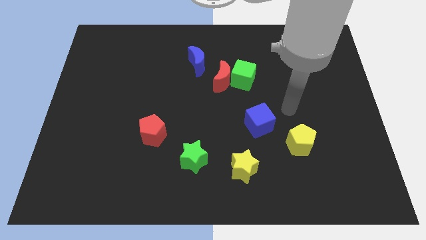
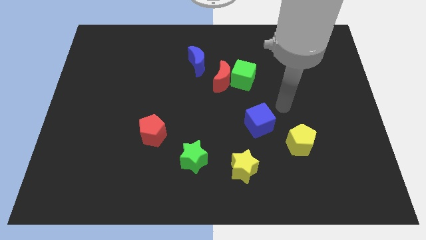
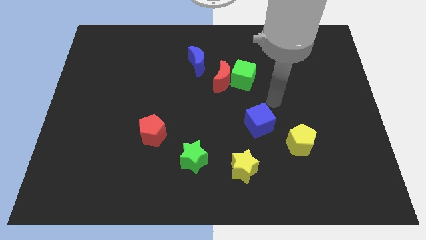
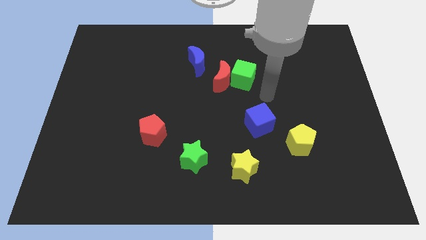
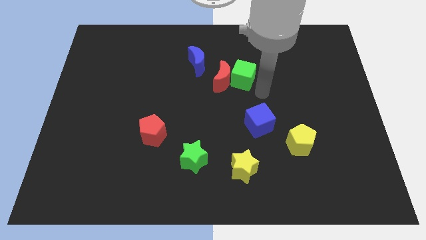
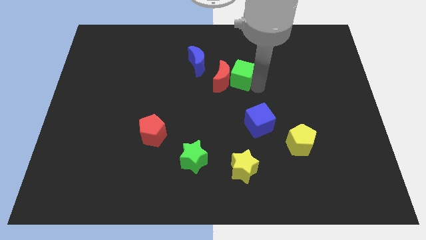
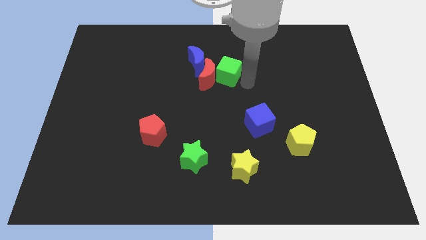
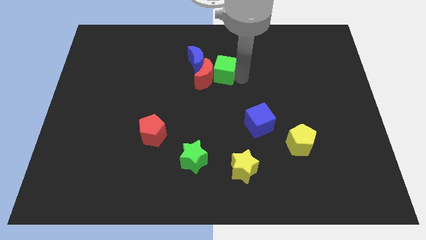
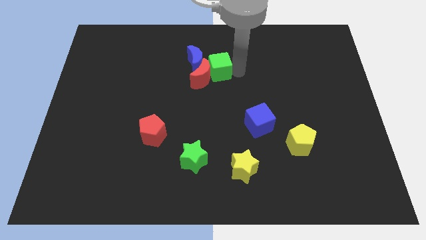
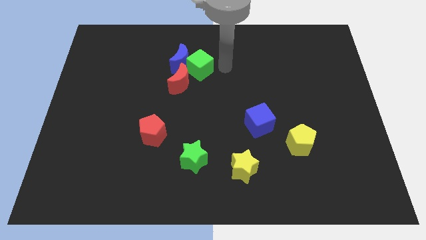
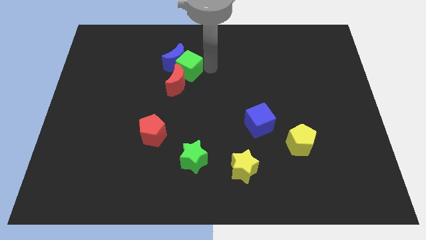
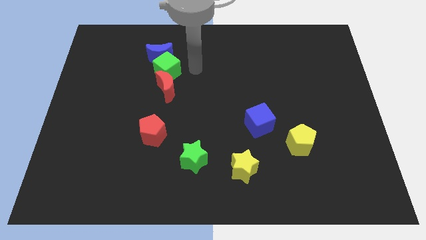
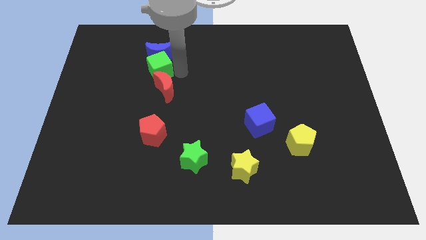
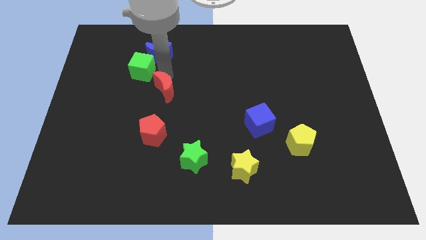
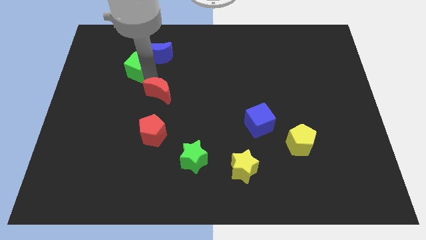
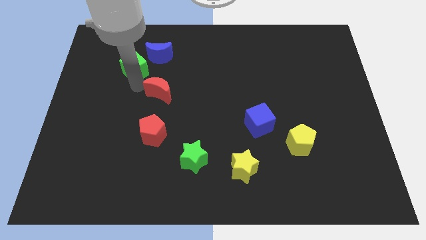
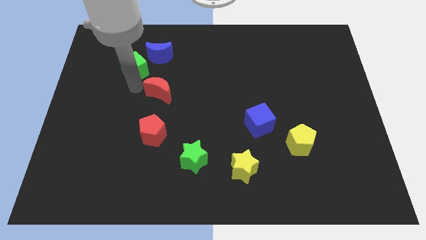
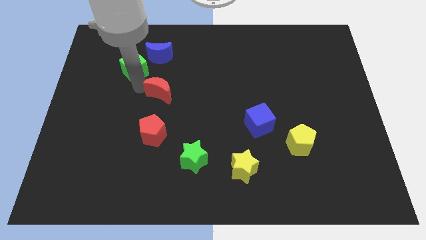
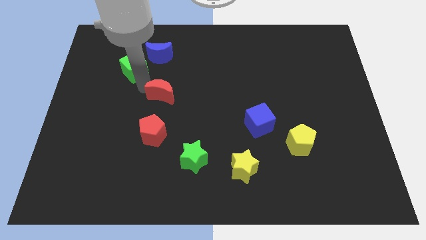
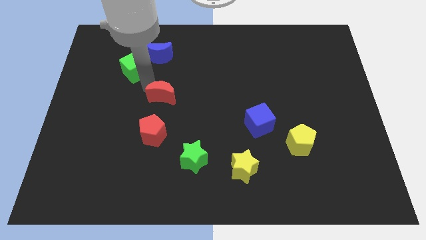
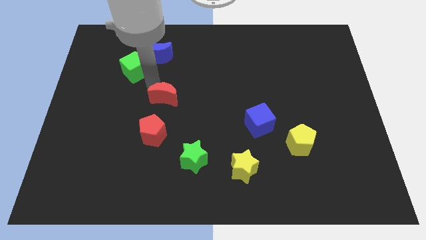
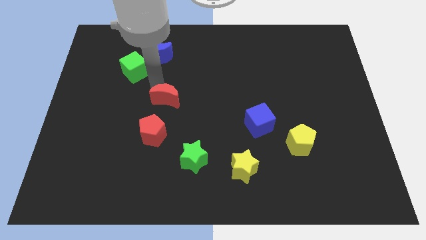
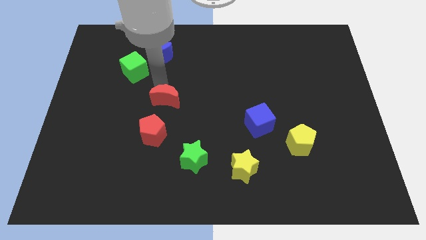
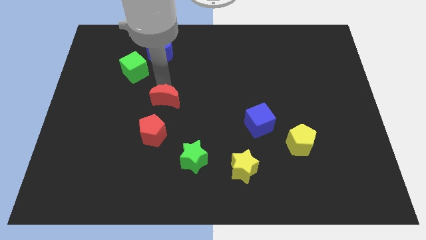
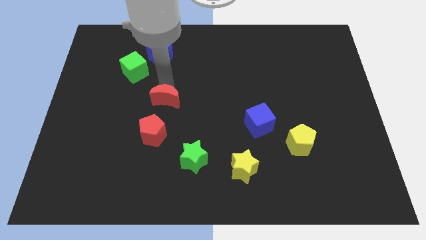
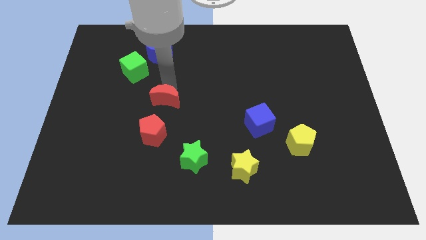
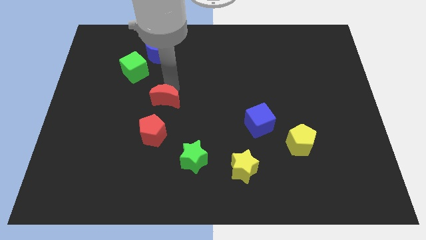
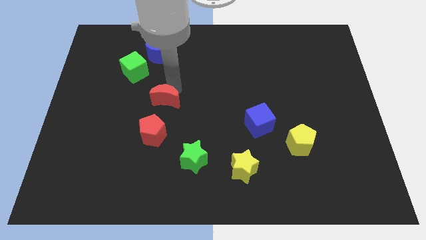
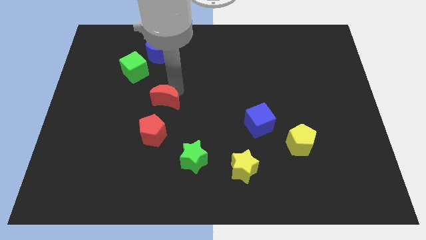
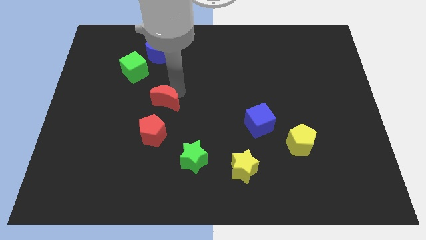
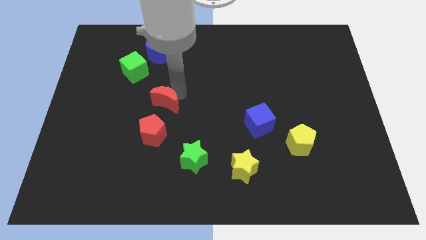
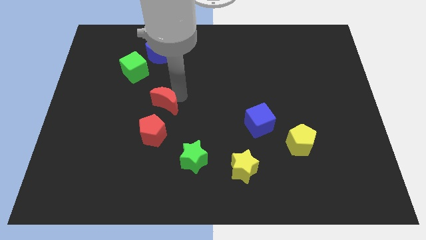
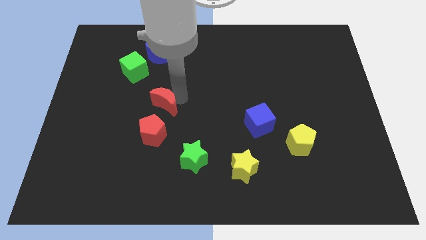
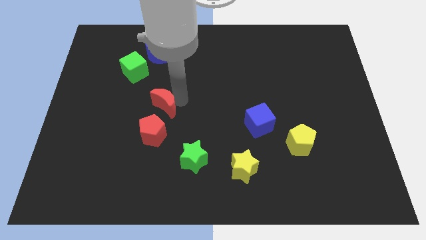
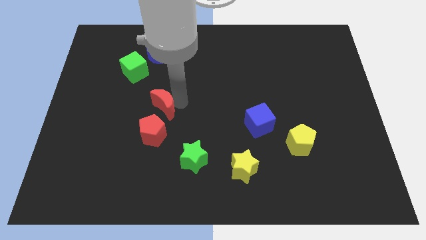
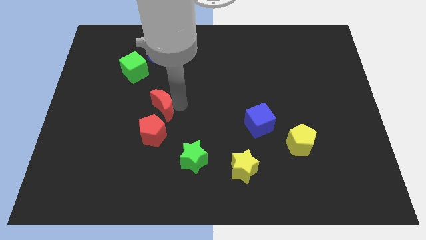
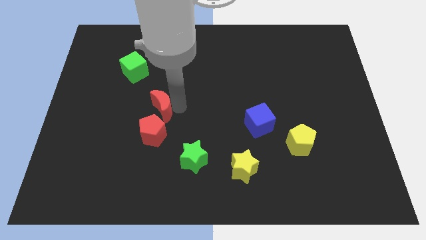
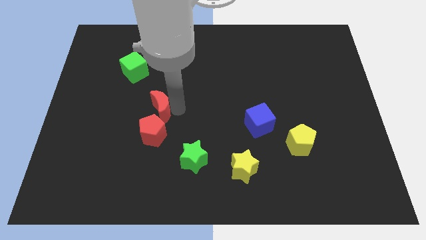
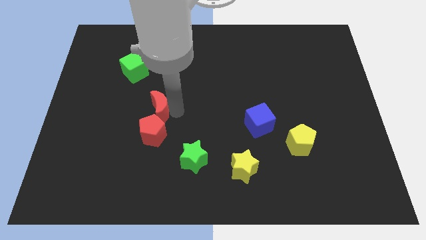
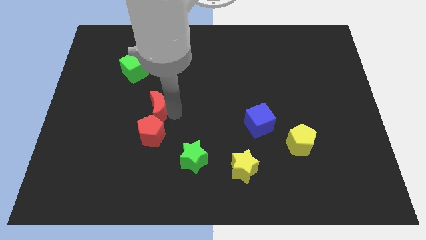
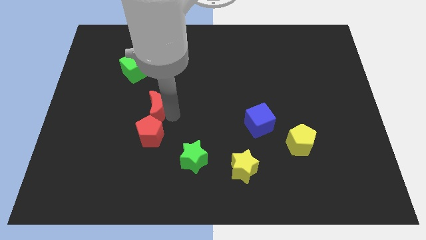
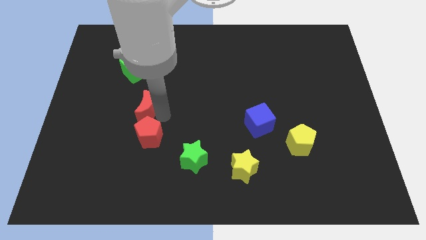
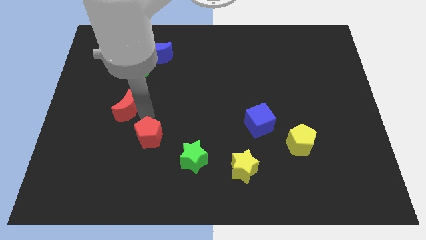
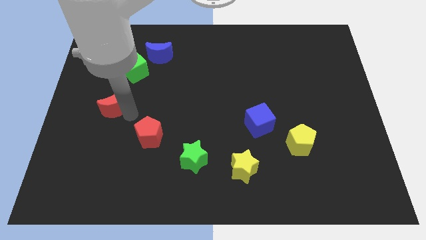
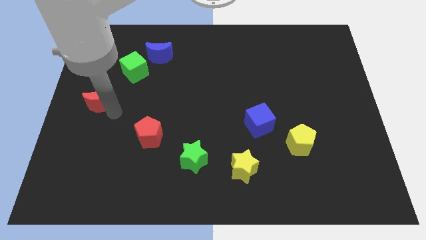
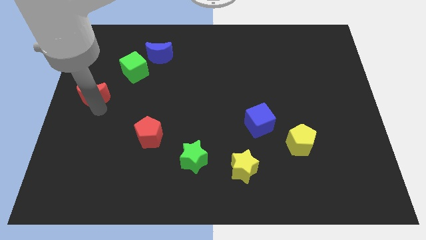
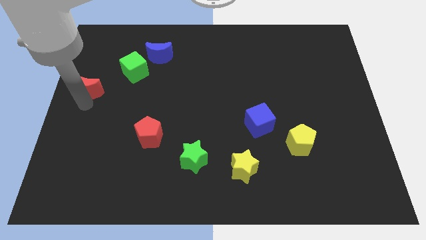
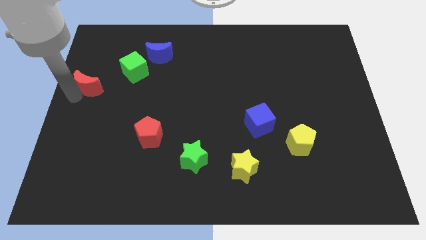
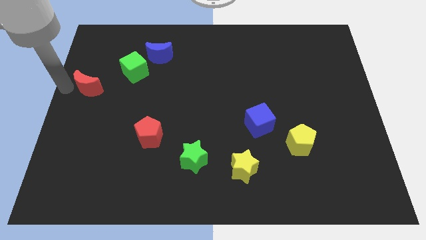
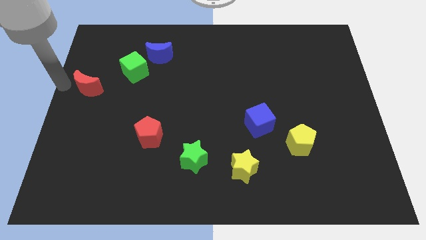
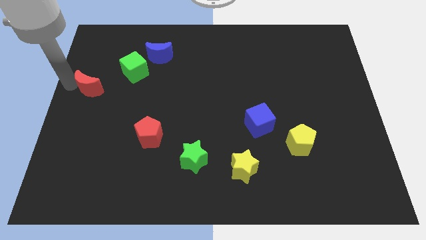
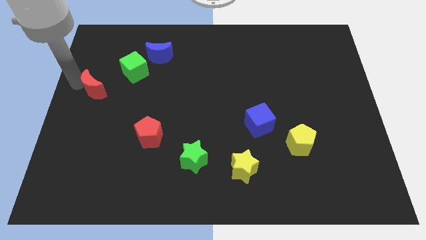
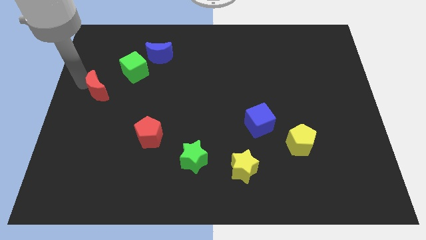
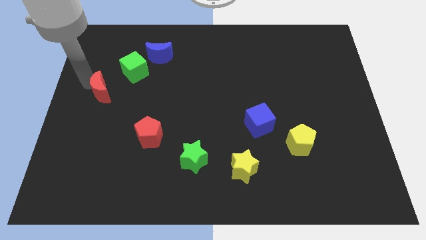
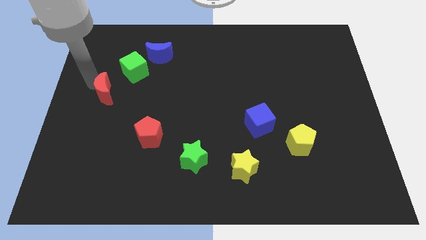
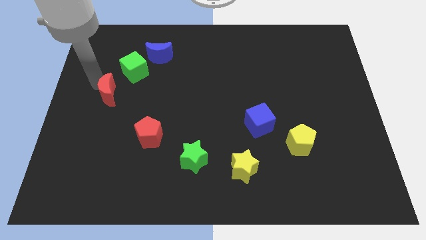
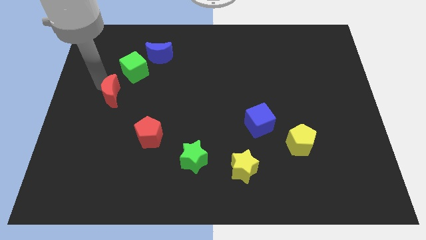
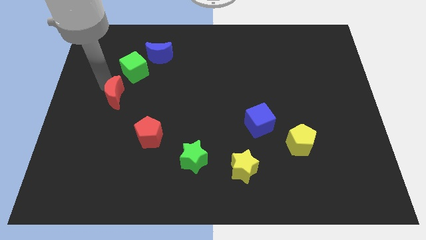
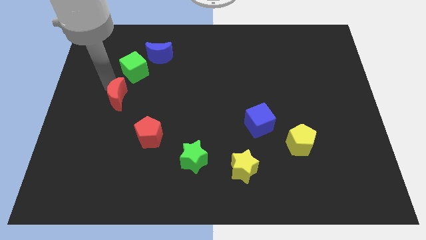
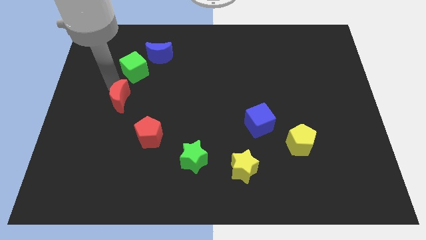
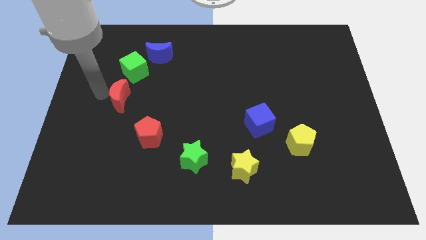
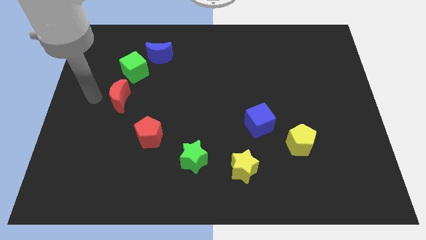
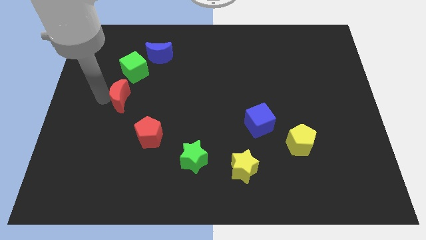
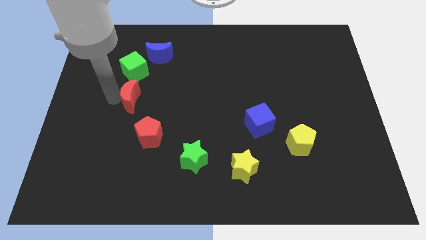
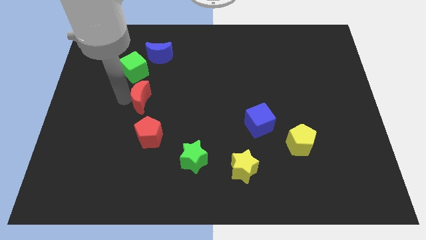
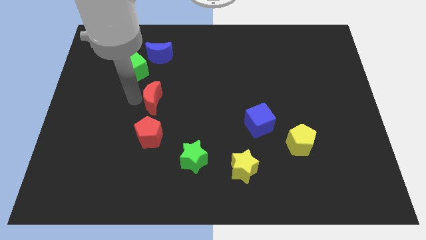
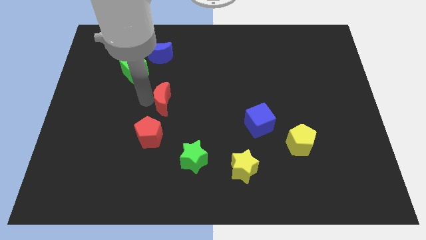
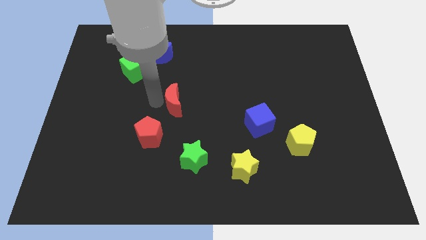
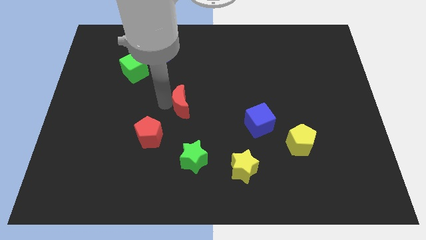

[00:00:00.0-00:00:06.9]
slide the red moon to the top of the green star

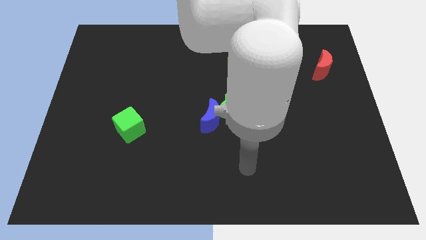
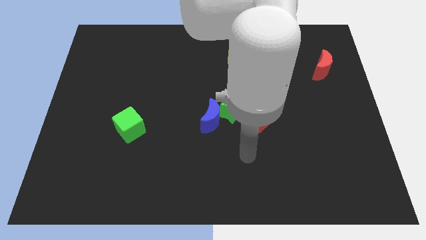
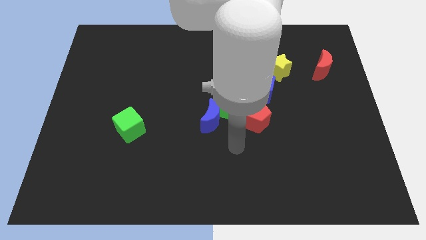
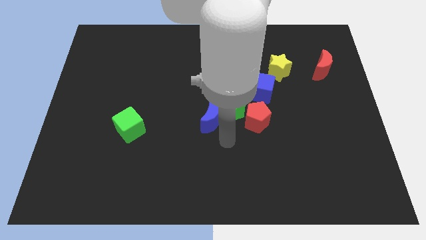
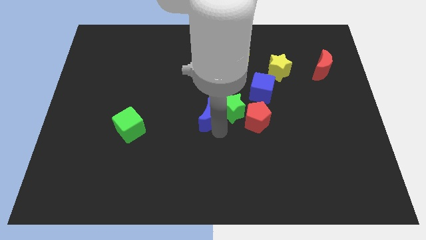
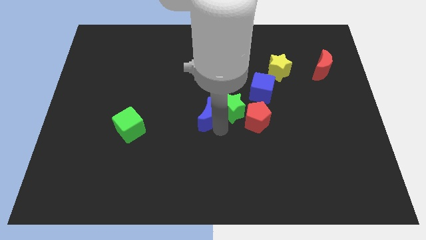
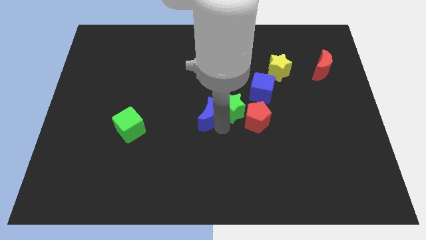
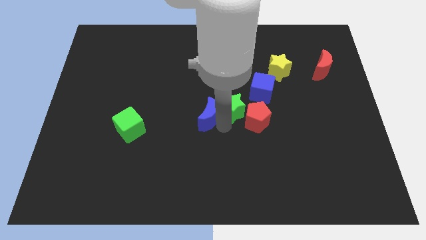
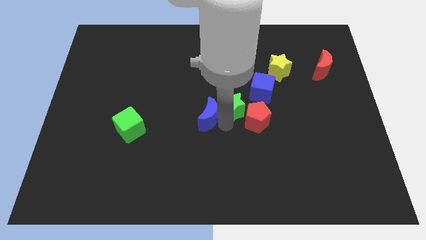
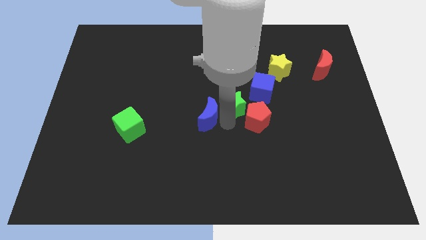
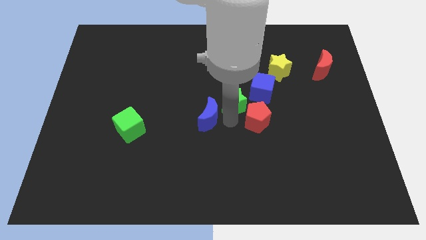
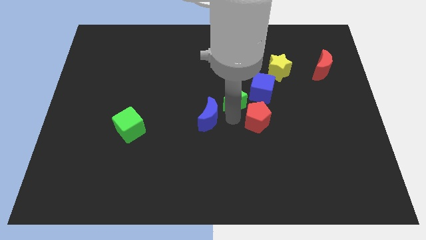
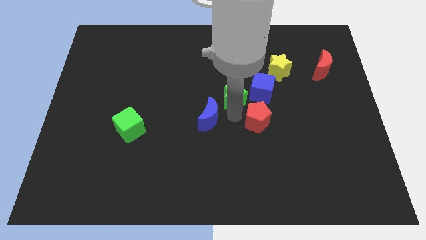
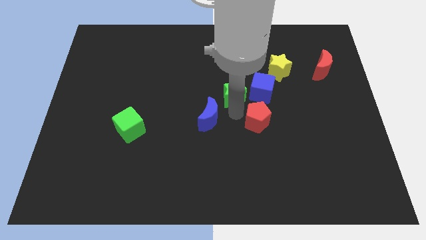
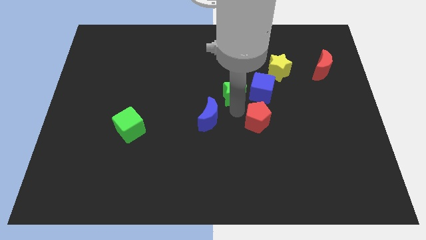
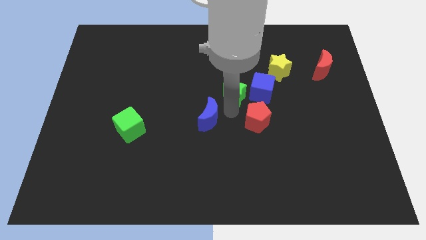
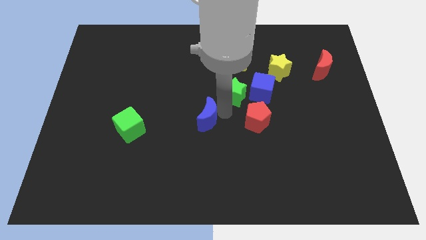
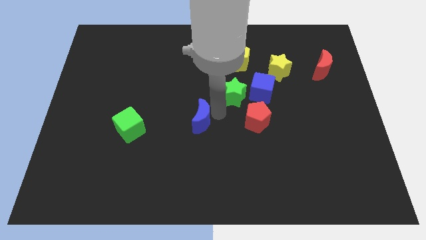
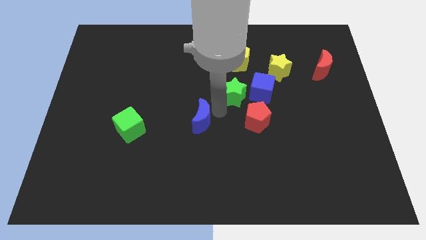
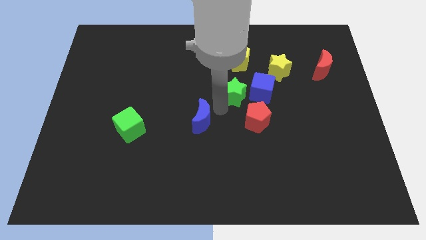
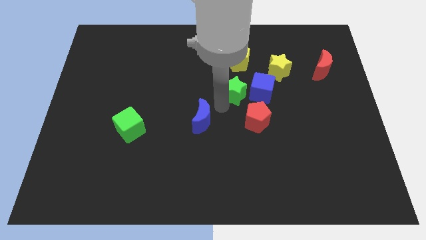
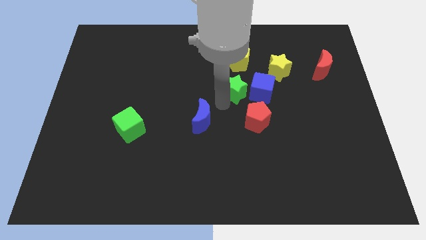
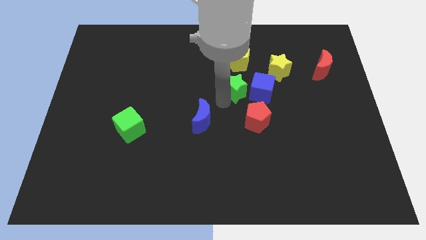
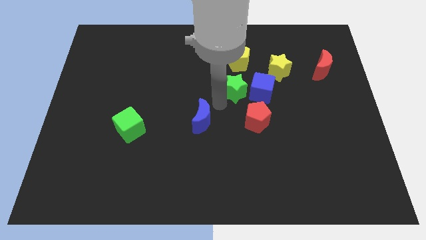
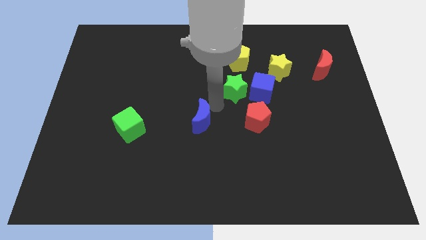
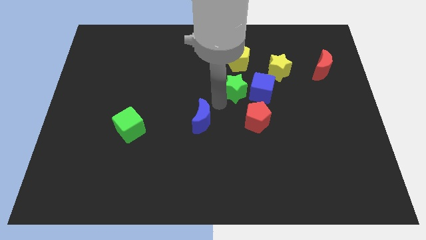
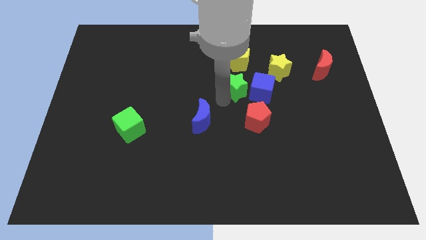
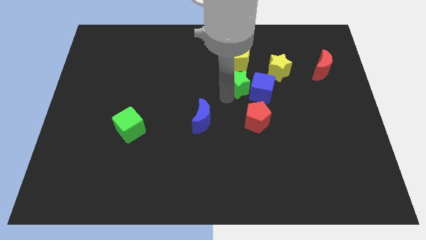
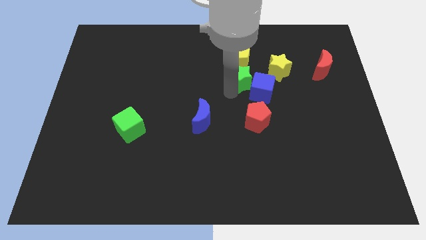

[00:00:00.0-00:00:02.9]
slide the green star diagonally down and to the right of the yellow pentagon
